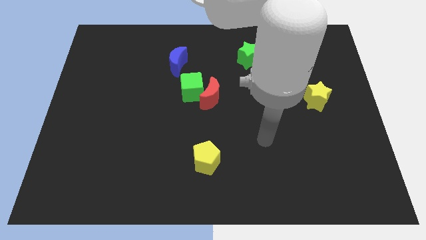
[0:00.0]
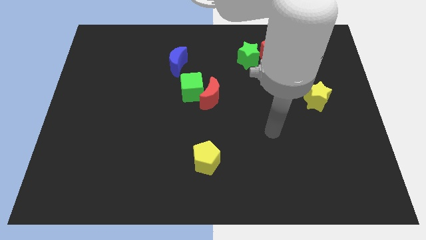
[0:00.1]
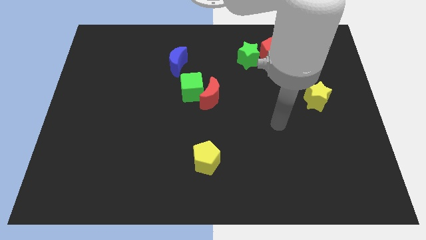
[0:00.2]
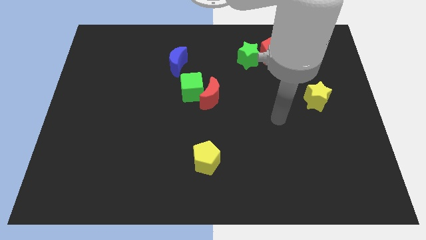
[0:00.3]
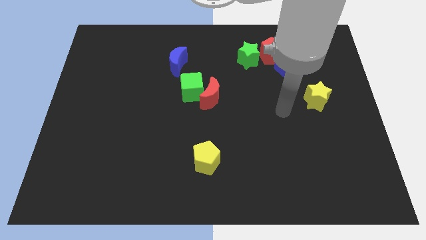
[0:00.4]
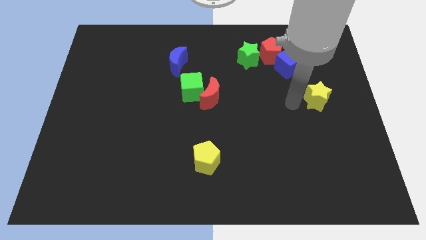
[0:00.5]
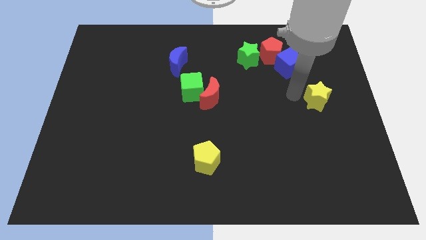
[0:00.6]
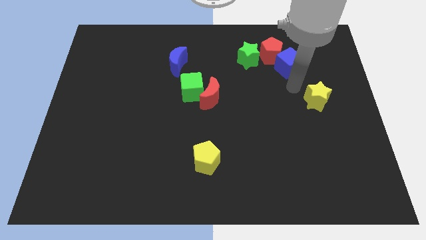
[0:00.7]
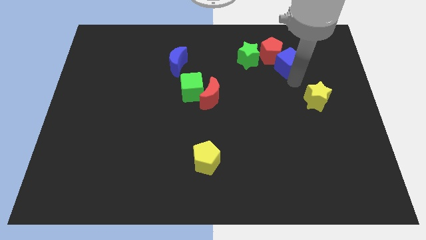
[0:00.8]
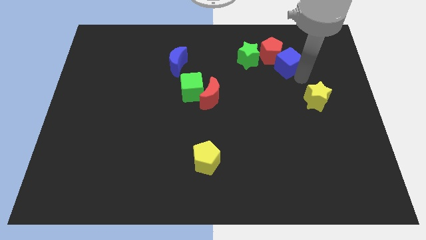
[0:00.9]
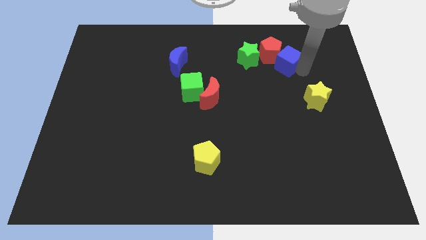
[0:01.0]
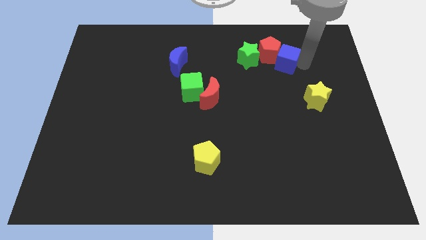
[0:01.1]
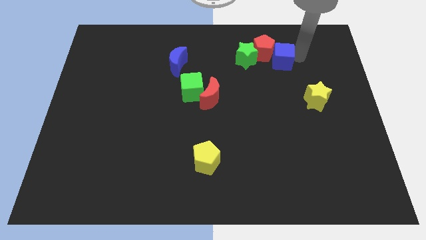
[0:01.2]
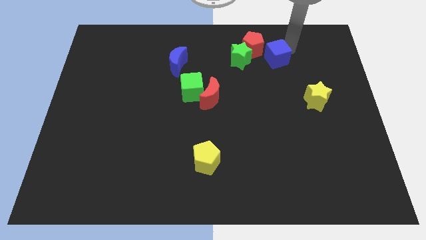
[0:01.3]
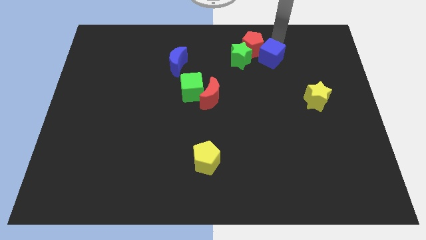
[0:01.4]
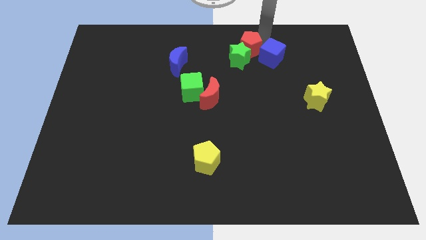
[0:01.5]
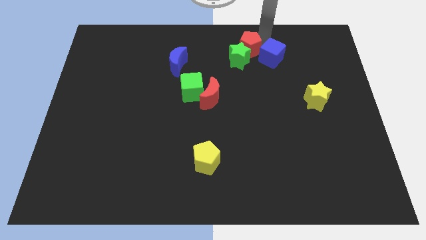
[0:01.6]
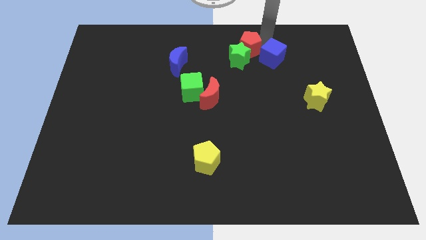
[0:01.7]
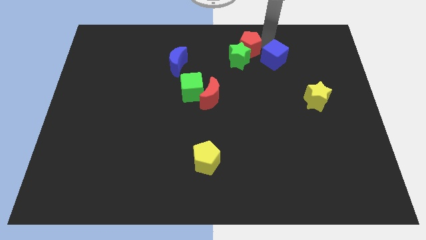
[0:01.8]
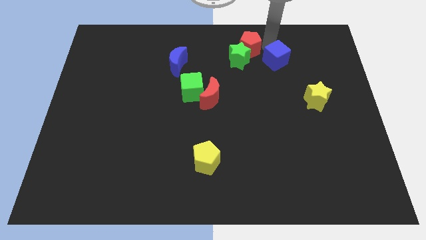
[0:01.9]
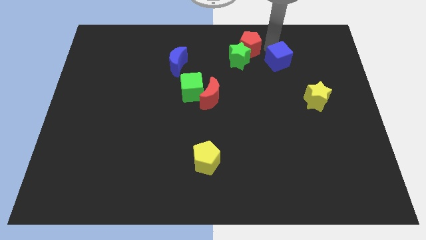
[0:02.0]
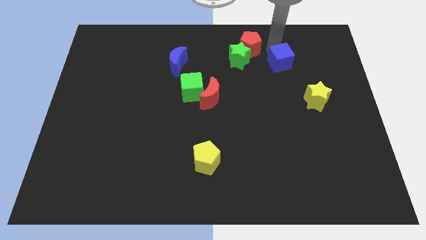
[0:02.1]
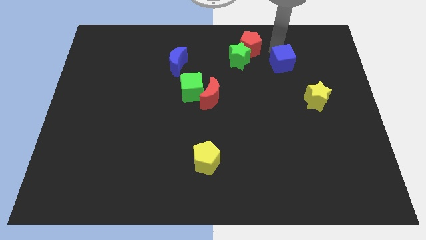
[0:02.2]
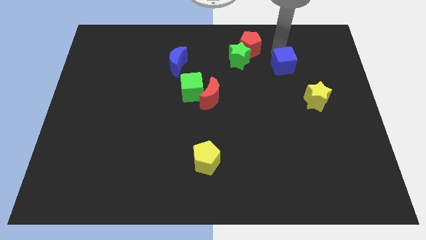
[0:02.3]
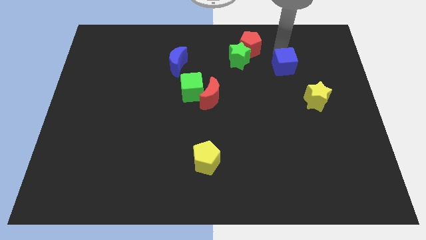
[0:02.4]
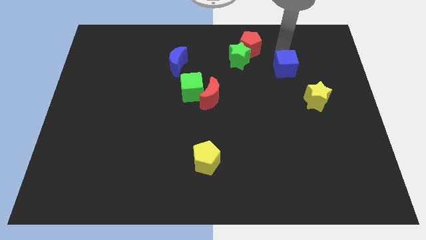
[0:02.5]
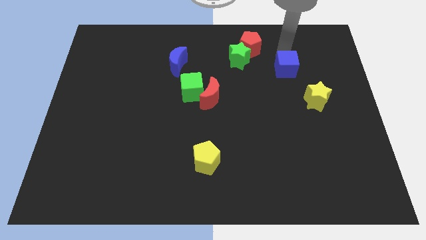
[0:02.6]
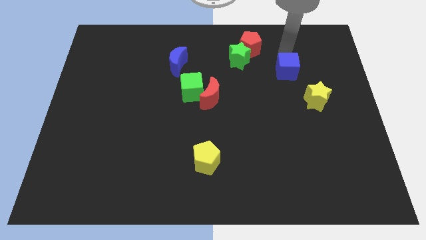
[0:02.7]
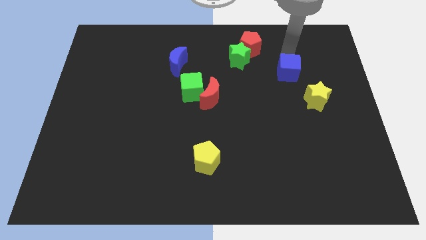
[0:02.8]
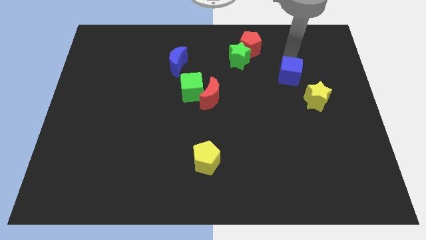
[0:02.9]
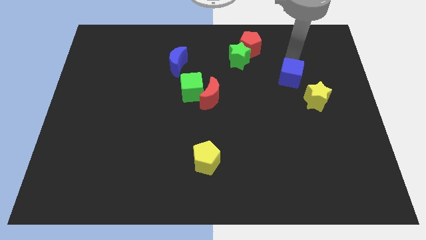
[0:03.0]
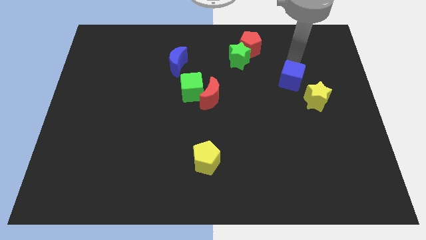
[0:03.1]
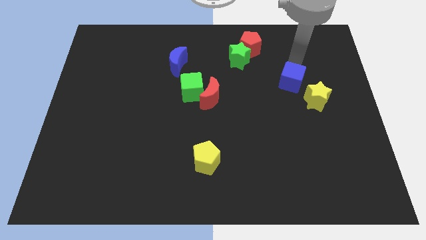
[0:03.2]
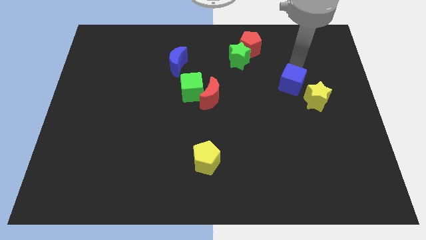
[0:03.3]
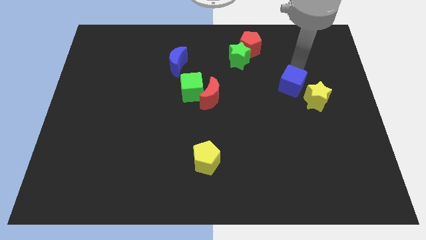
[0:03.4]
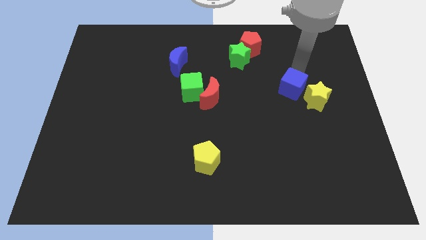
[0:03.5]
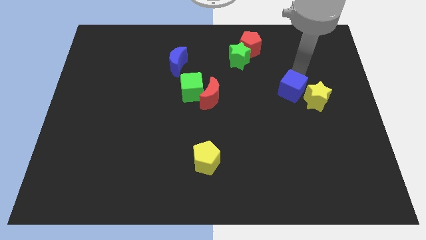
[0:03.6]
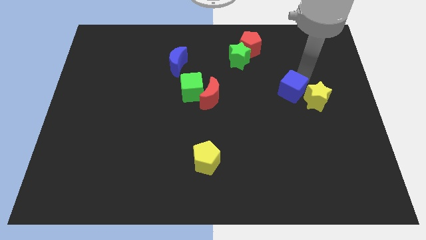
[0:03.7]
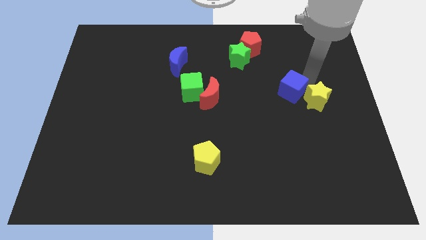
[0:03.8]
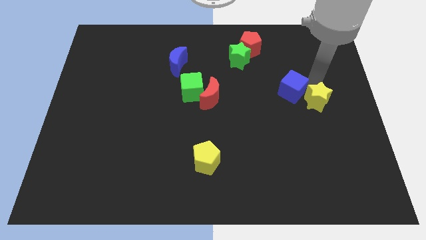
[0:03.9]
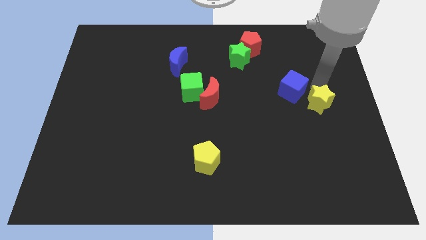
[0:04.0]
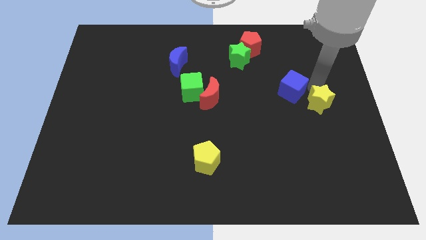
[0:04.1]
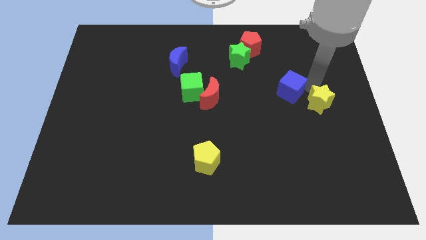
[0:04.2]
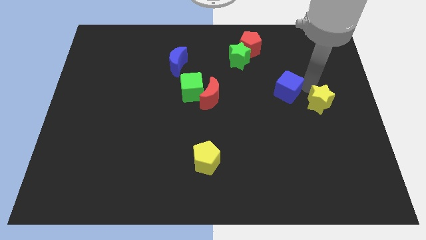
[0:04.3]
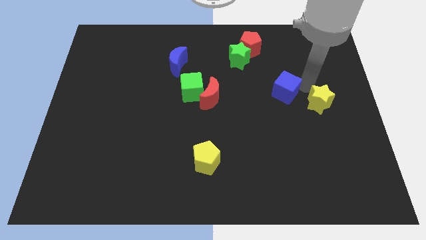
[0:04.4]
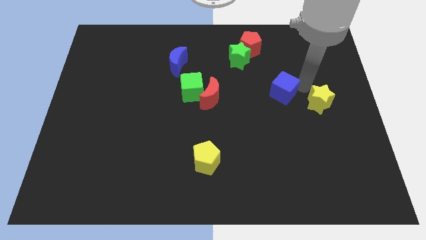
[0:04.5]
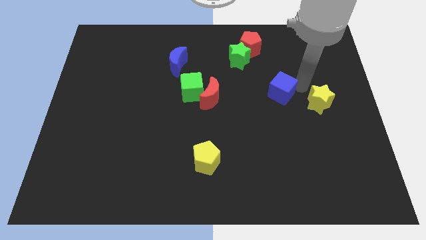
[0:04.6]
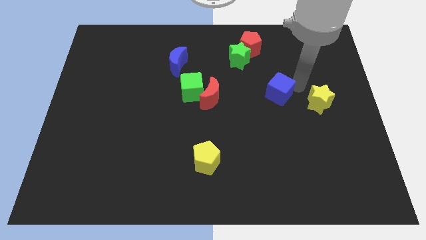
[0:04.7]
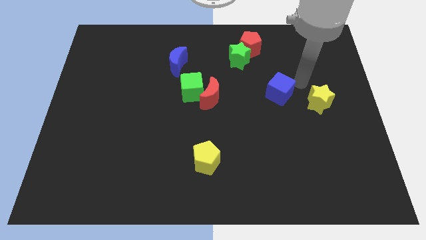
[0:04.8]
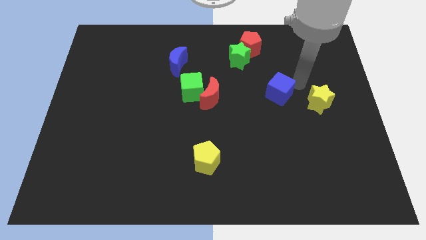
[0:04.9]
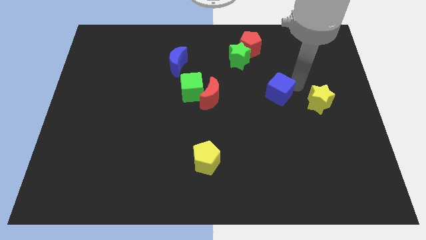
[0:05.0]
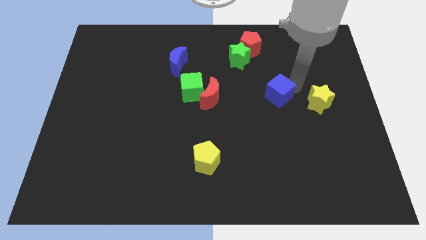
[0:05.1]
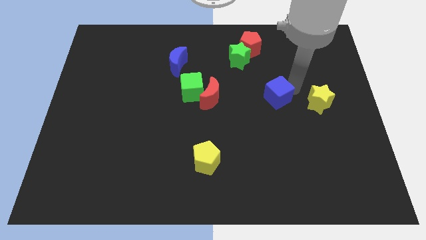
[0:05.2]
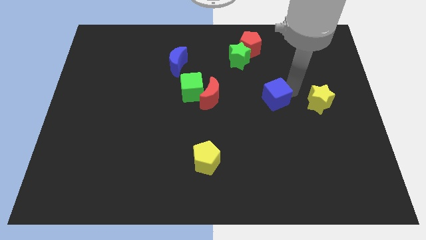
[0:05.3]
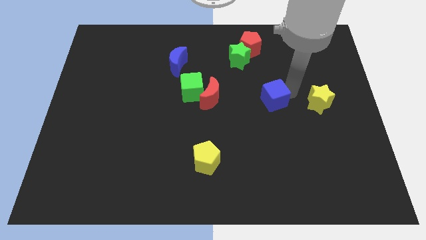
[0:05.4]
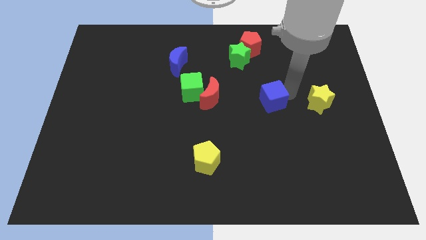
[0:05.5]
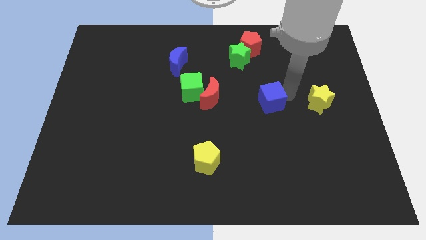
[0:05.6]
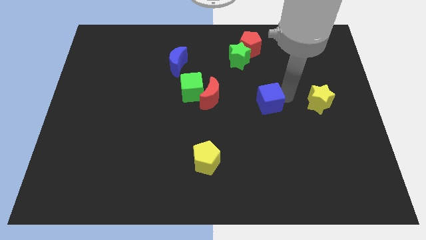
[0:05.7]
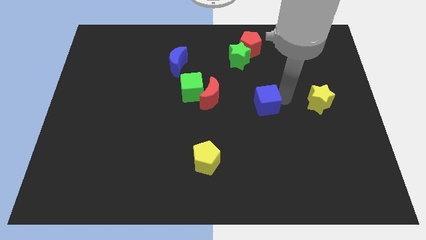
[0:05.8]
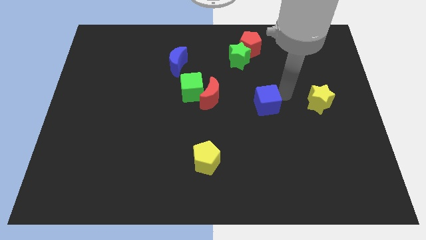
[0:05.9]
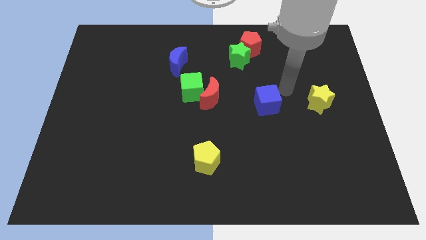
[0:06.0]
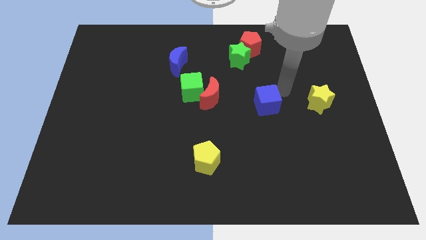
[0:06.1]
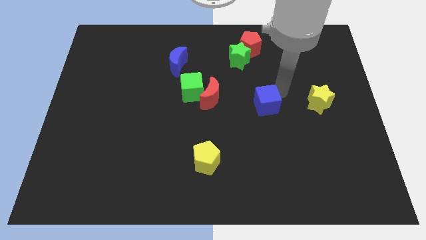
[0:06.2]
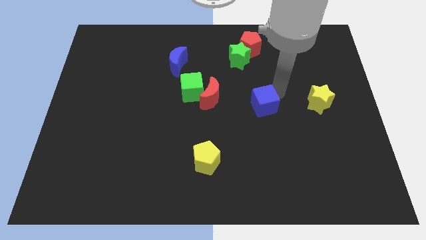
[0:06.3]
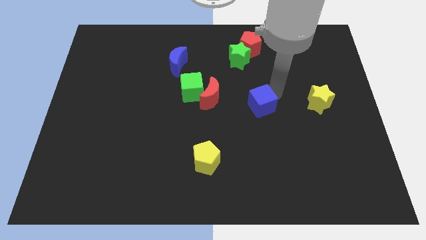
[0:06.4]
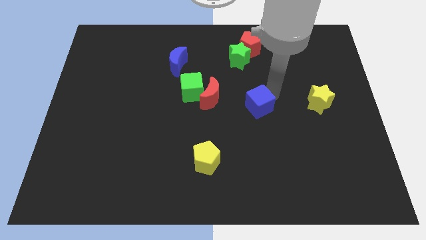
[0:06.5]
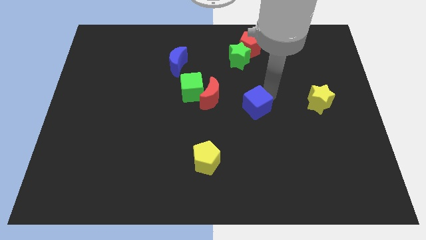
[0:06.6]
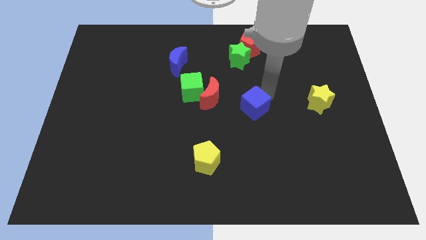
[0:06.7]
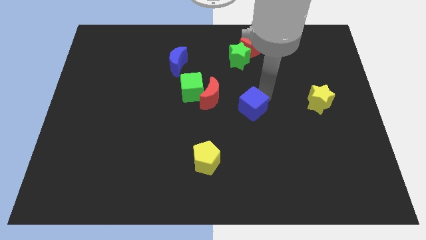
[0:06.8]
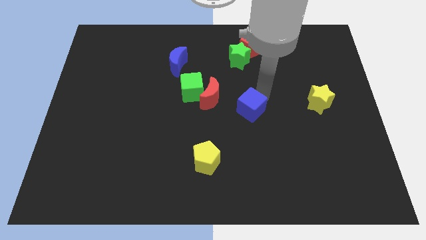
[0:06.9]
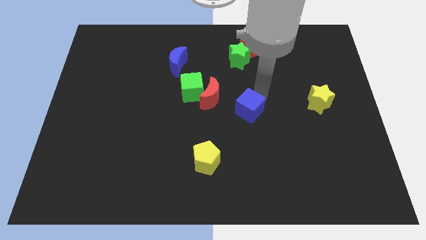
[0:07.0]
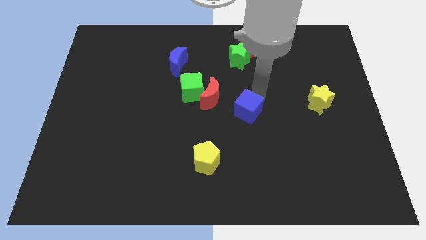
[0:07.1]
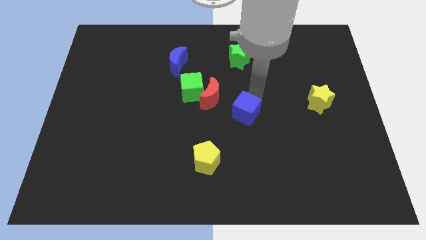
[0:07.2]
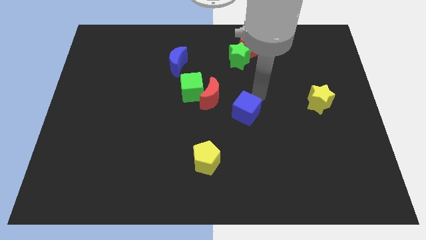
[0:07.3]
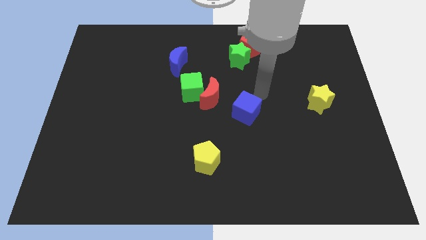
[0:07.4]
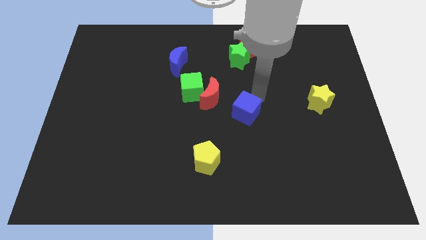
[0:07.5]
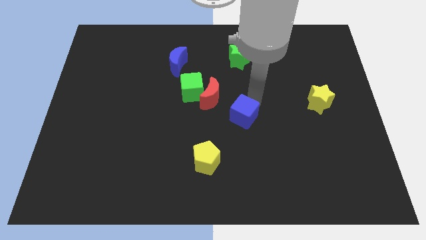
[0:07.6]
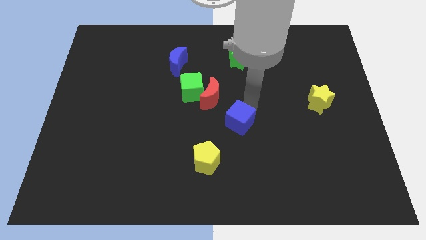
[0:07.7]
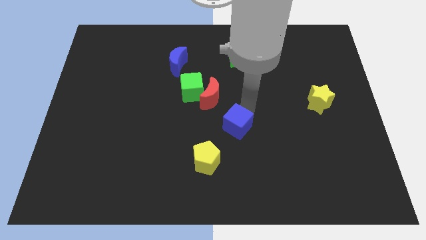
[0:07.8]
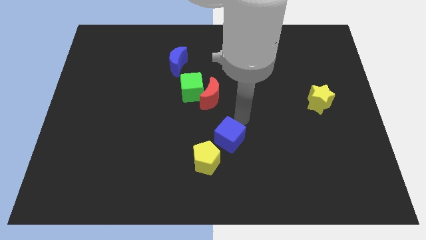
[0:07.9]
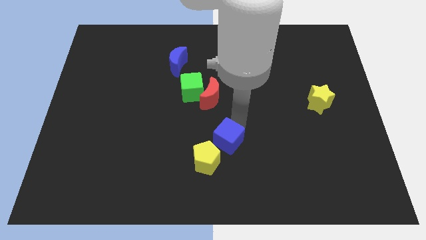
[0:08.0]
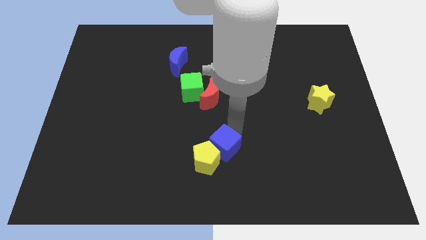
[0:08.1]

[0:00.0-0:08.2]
push the blue cube towards the yellow pentagon
